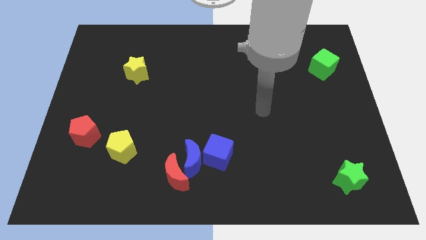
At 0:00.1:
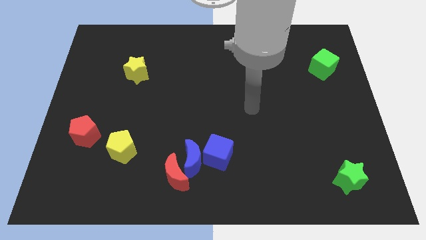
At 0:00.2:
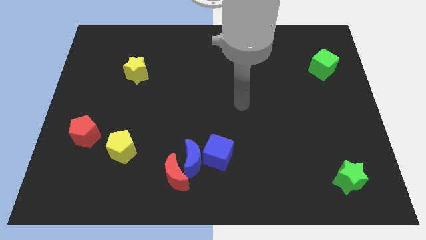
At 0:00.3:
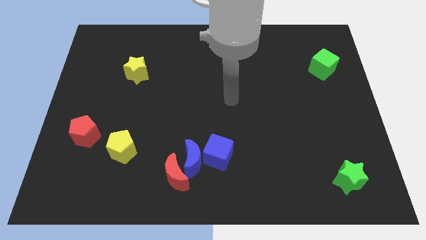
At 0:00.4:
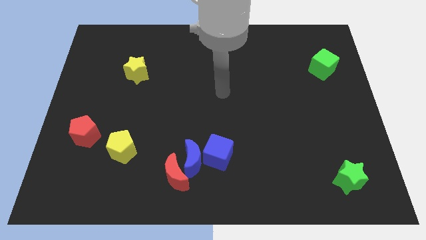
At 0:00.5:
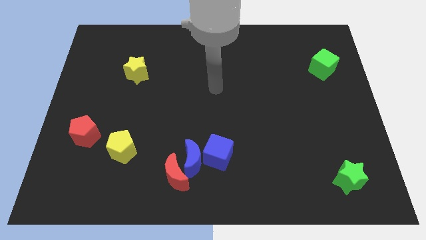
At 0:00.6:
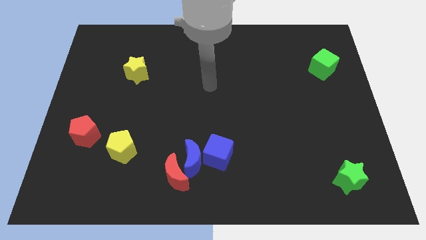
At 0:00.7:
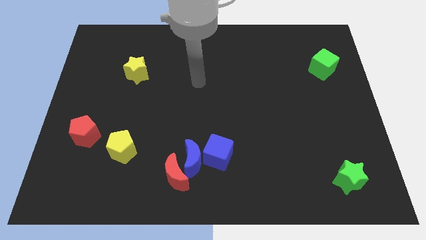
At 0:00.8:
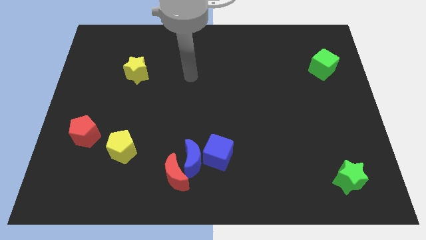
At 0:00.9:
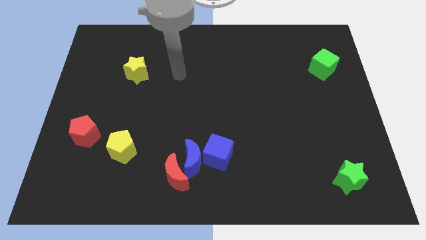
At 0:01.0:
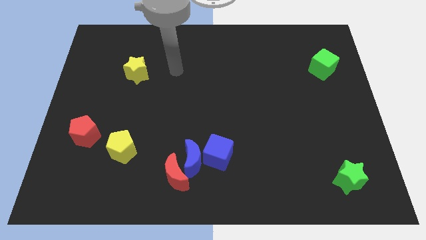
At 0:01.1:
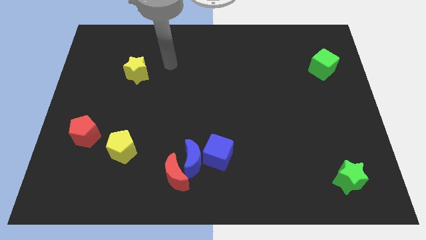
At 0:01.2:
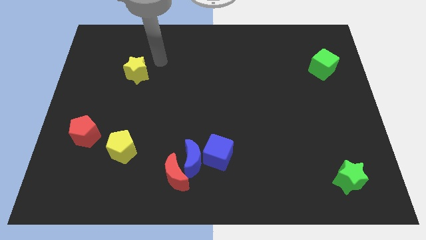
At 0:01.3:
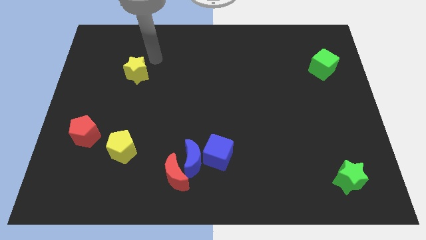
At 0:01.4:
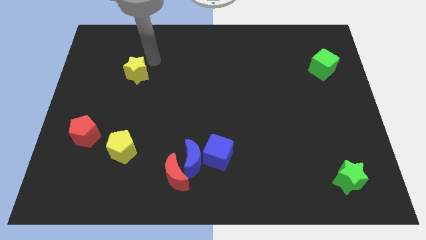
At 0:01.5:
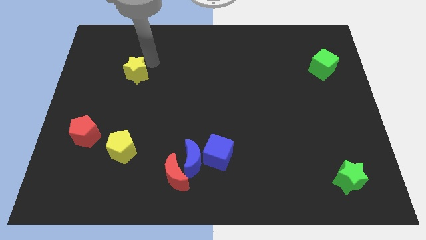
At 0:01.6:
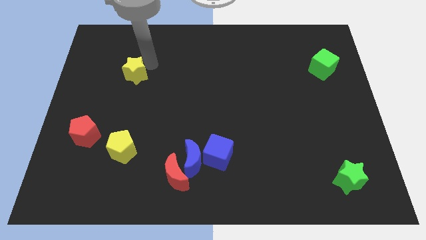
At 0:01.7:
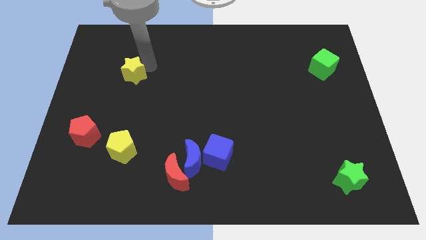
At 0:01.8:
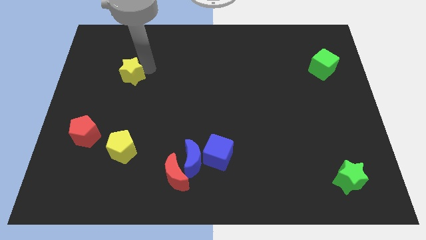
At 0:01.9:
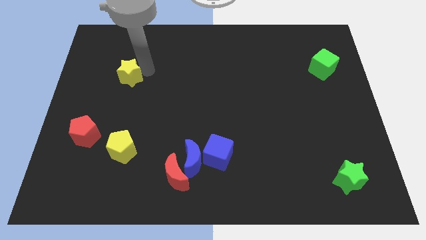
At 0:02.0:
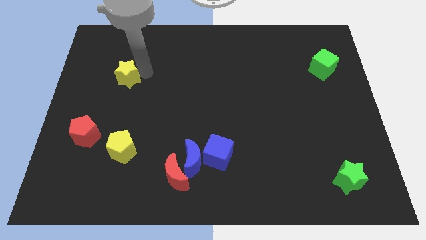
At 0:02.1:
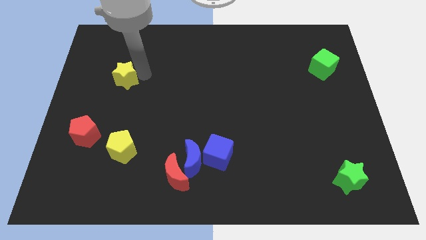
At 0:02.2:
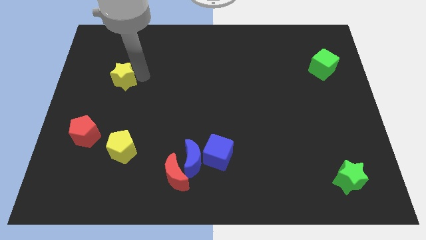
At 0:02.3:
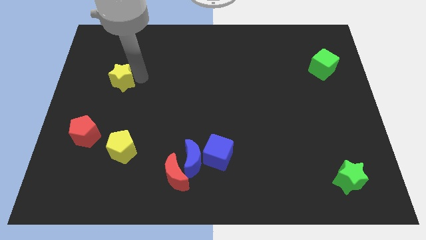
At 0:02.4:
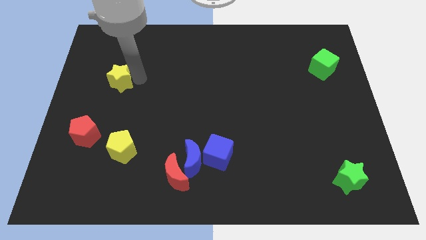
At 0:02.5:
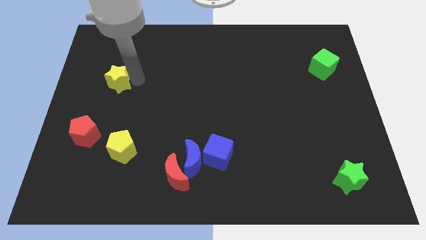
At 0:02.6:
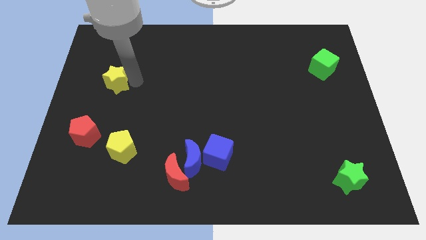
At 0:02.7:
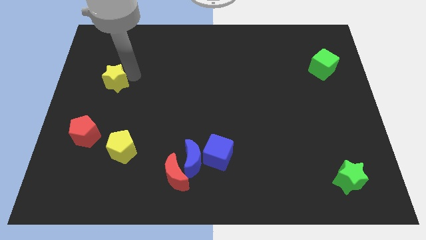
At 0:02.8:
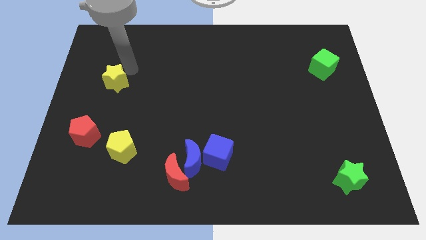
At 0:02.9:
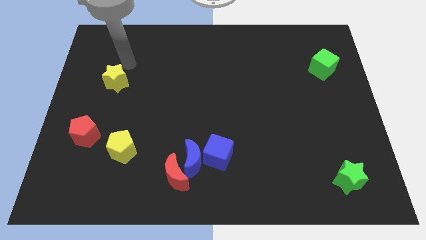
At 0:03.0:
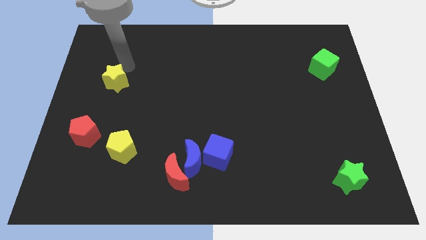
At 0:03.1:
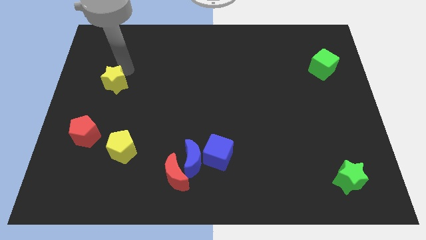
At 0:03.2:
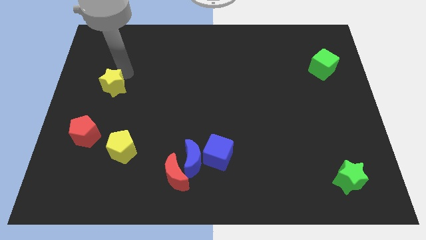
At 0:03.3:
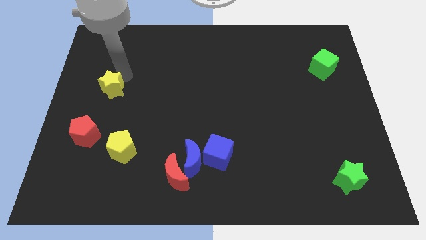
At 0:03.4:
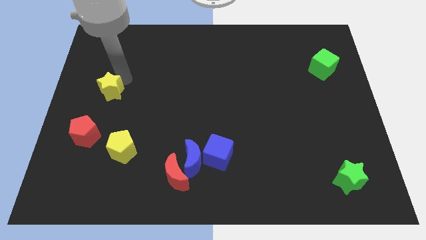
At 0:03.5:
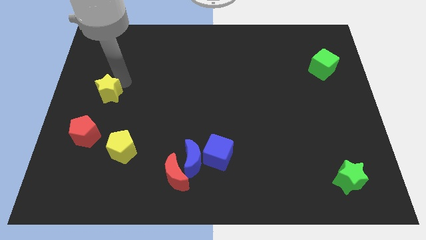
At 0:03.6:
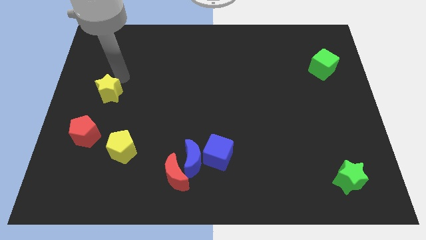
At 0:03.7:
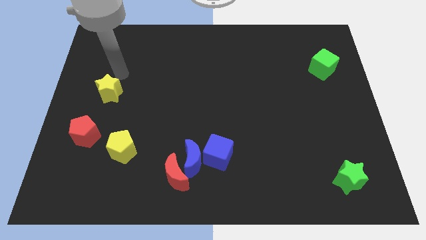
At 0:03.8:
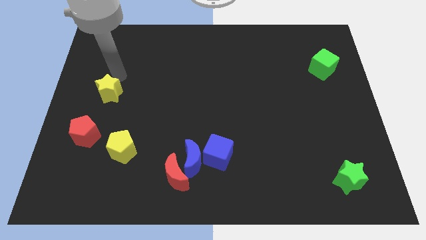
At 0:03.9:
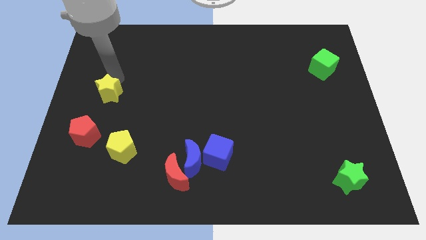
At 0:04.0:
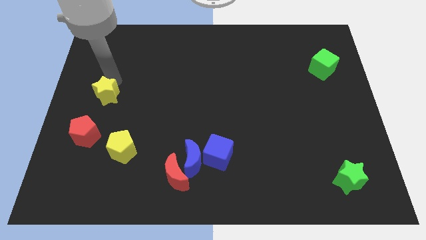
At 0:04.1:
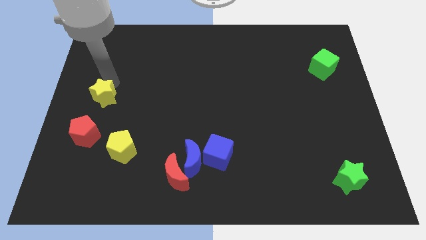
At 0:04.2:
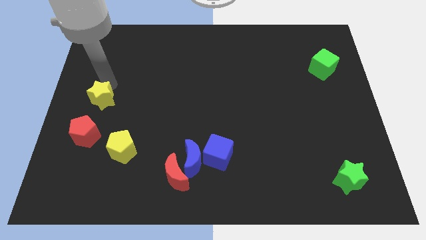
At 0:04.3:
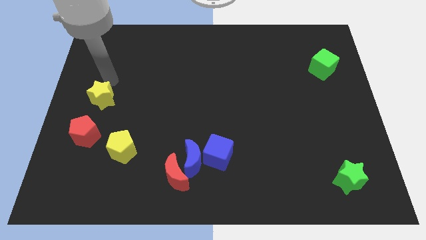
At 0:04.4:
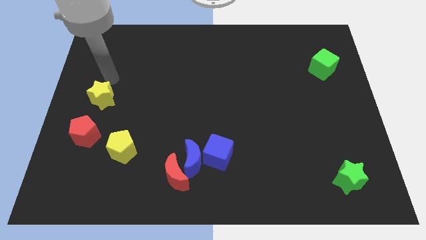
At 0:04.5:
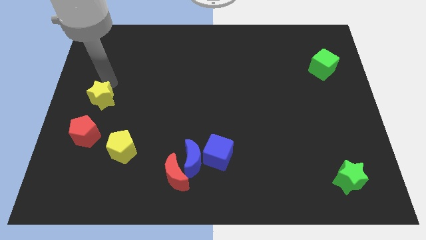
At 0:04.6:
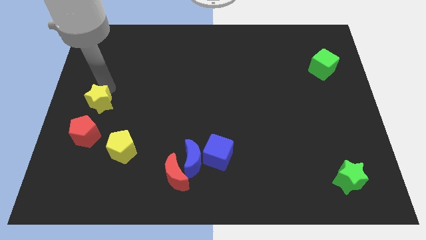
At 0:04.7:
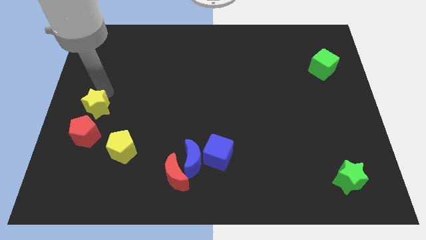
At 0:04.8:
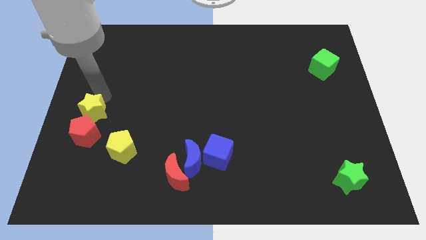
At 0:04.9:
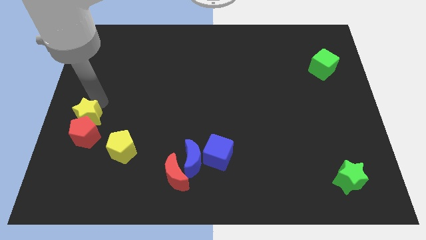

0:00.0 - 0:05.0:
push the yellow star to the red pentagon

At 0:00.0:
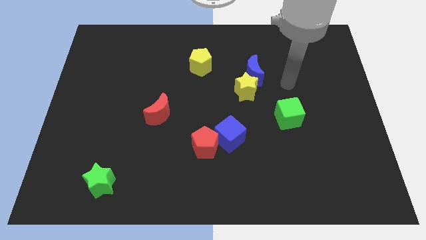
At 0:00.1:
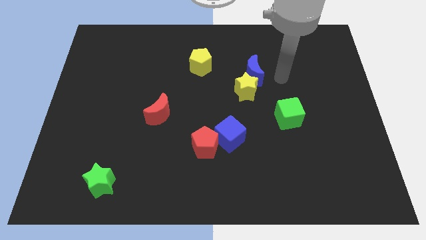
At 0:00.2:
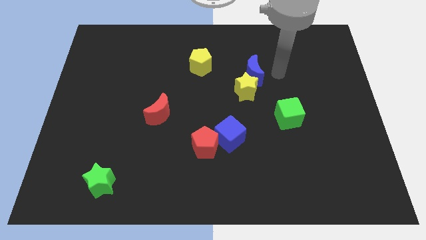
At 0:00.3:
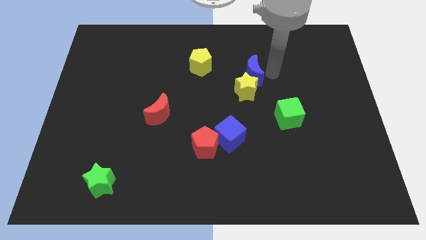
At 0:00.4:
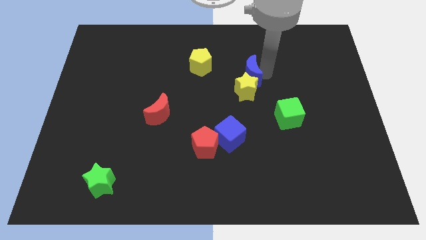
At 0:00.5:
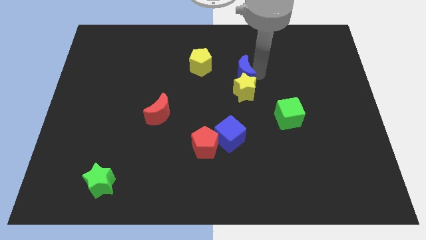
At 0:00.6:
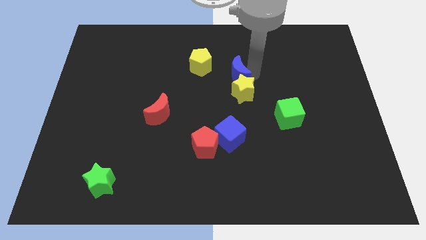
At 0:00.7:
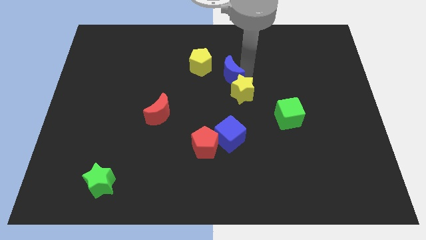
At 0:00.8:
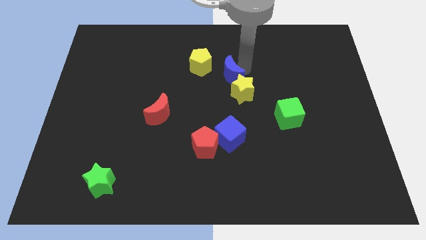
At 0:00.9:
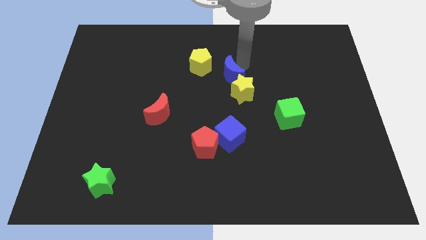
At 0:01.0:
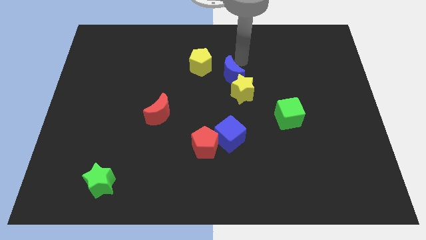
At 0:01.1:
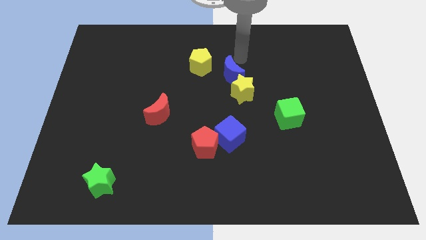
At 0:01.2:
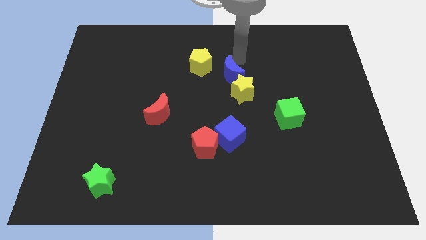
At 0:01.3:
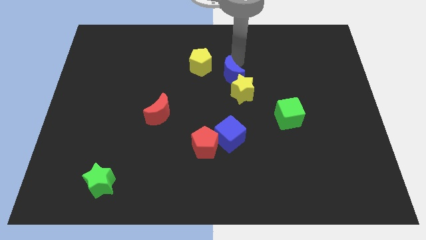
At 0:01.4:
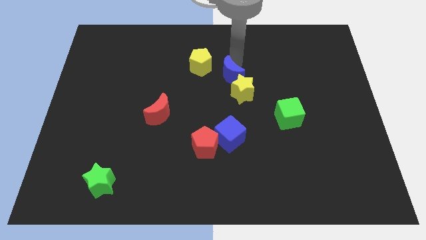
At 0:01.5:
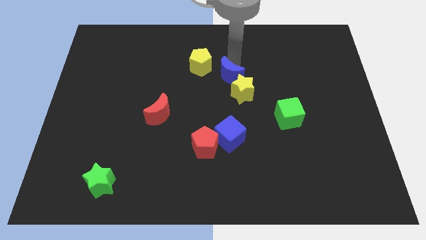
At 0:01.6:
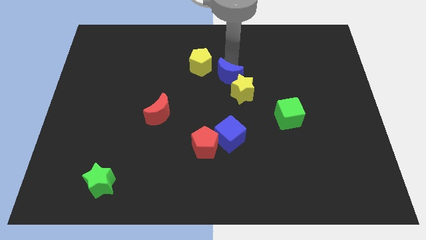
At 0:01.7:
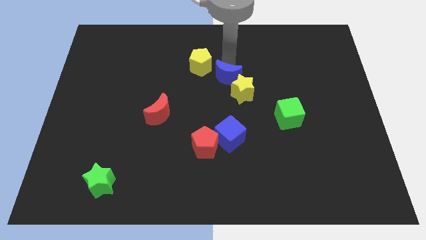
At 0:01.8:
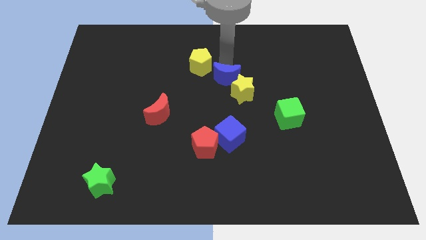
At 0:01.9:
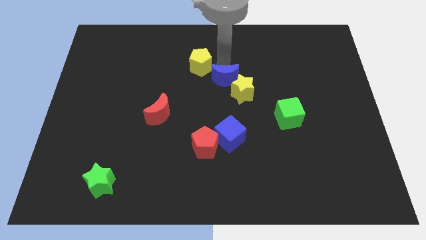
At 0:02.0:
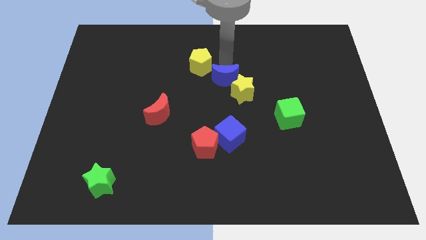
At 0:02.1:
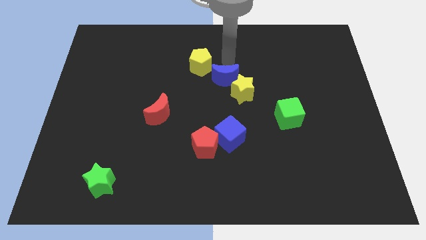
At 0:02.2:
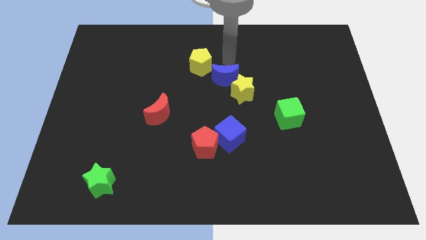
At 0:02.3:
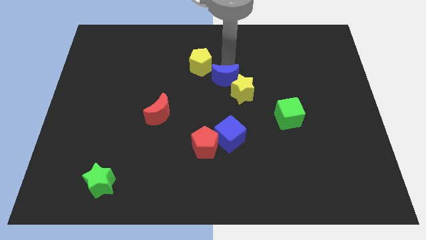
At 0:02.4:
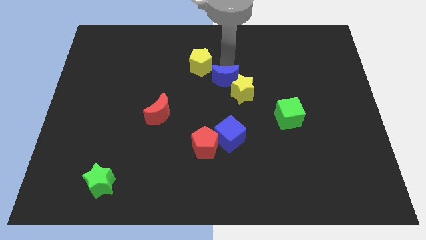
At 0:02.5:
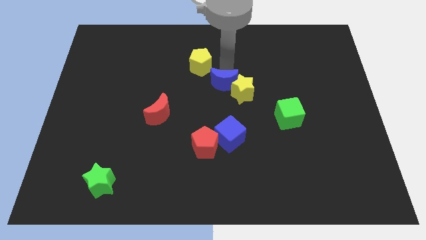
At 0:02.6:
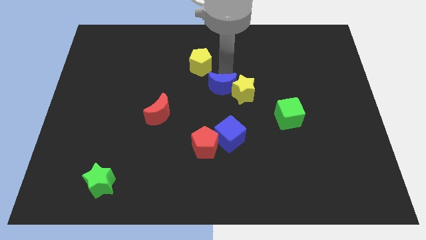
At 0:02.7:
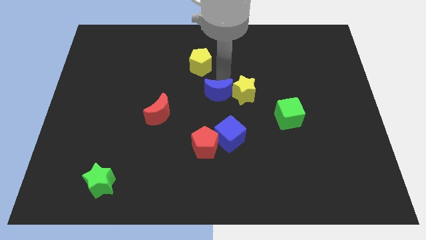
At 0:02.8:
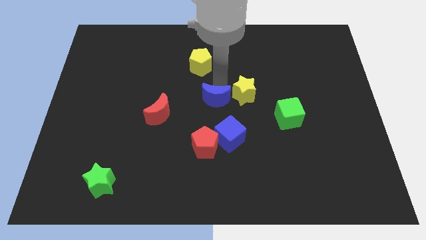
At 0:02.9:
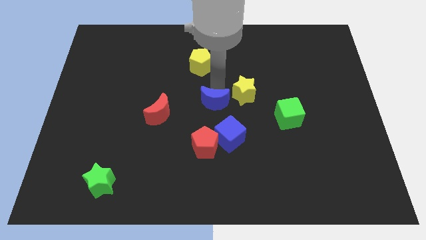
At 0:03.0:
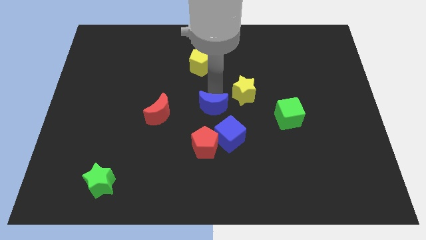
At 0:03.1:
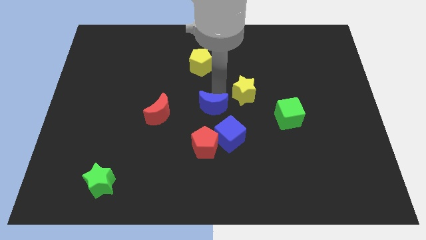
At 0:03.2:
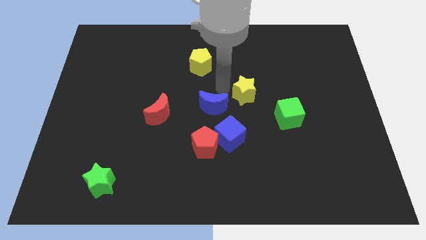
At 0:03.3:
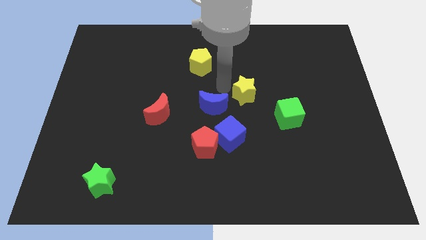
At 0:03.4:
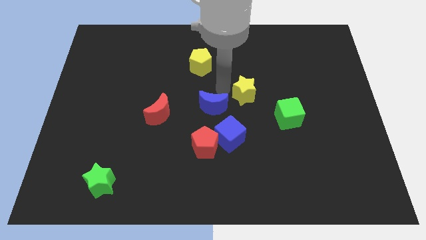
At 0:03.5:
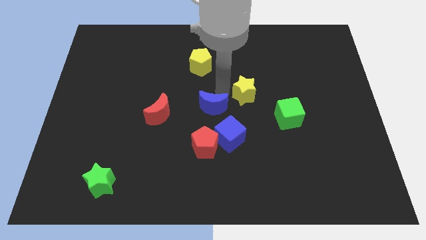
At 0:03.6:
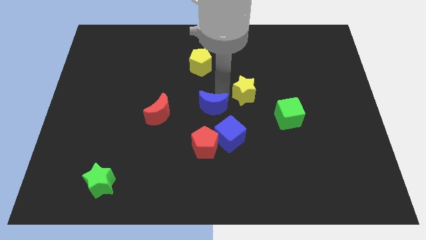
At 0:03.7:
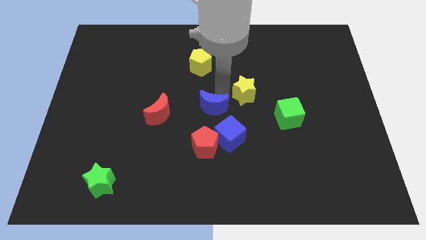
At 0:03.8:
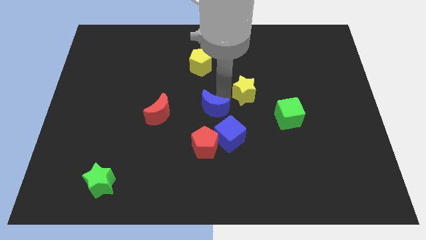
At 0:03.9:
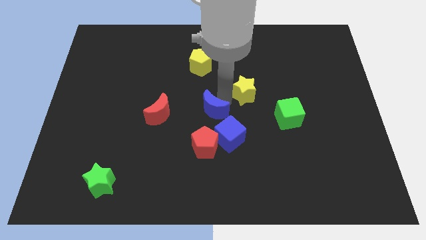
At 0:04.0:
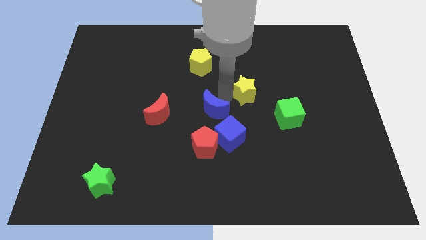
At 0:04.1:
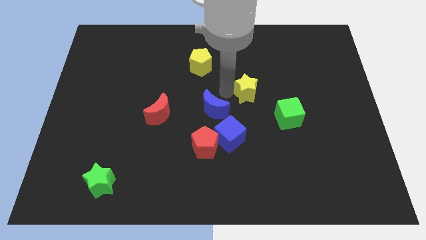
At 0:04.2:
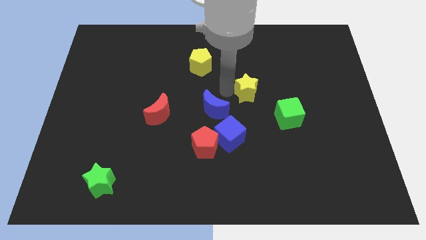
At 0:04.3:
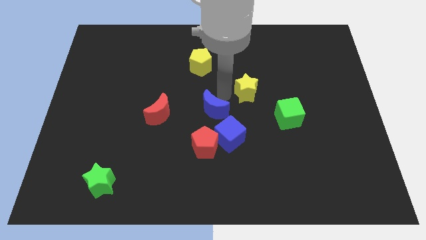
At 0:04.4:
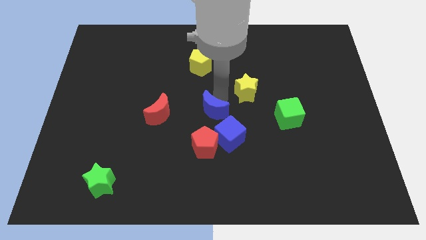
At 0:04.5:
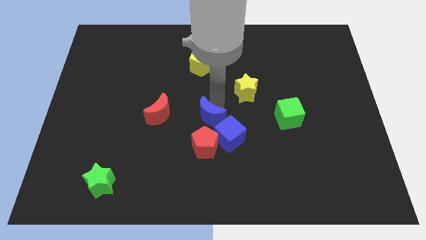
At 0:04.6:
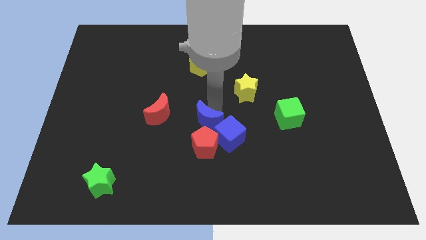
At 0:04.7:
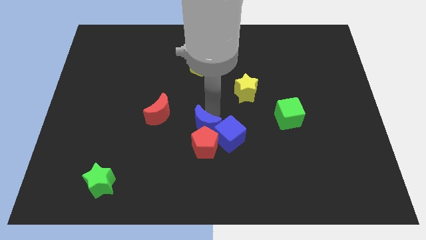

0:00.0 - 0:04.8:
move the blue moon to the red pentagon
